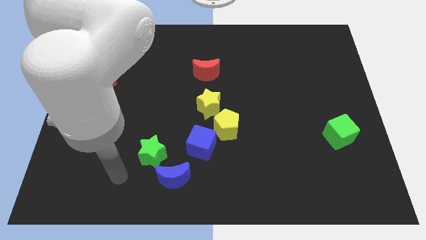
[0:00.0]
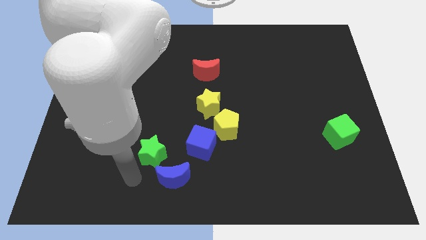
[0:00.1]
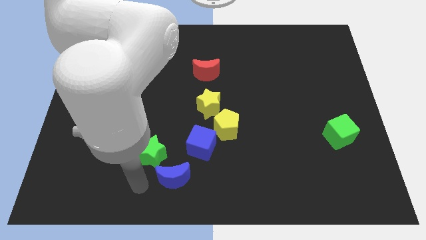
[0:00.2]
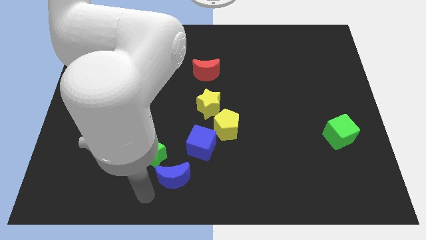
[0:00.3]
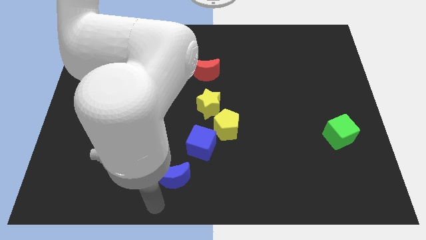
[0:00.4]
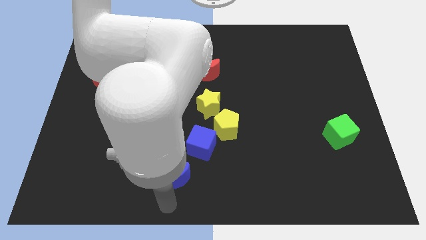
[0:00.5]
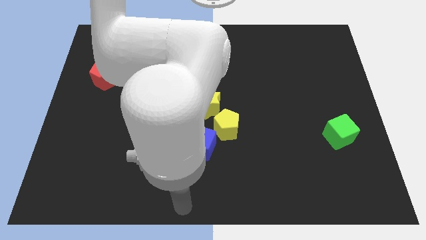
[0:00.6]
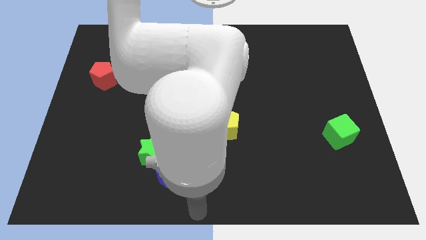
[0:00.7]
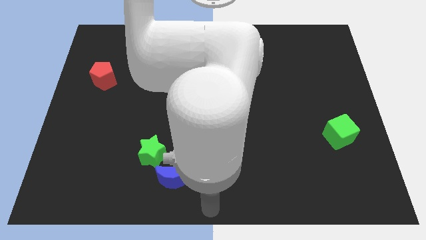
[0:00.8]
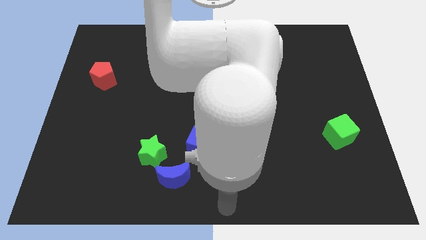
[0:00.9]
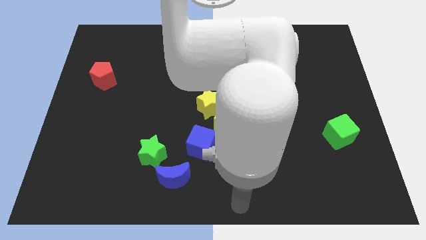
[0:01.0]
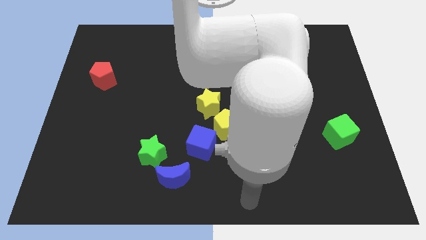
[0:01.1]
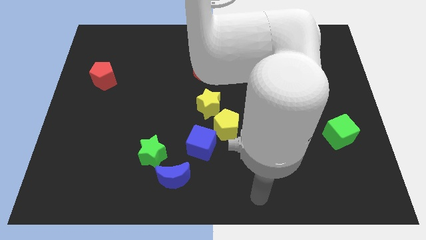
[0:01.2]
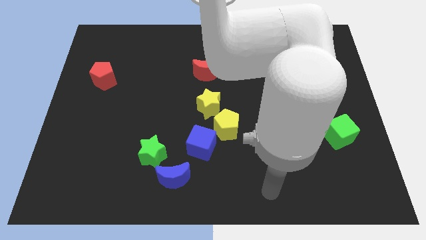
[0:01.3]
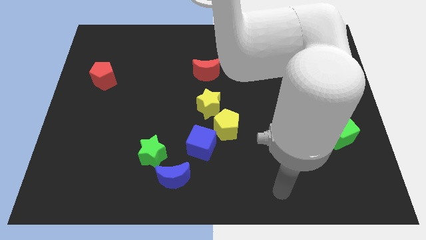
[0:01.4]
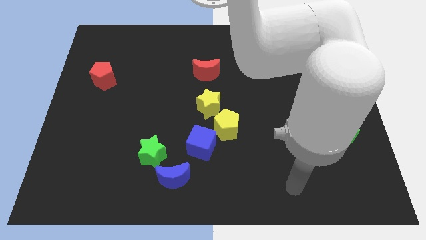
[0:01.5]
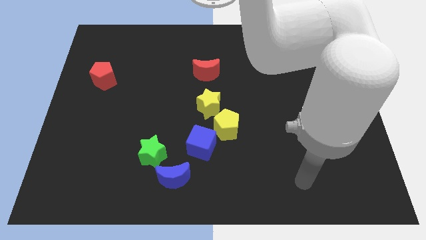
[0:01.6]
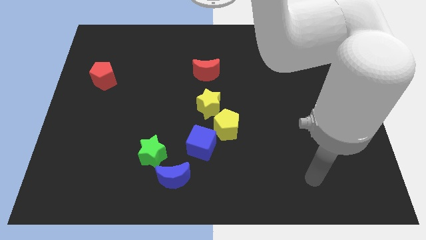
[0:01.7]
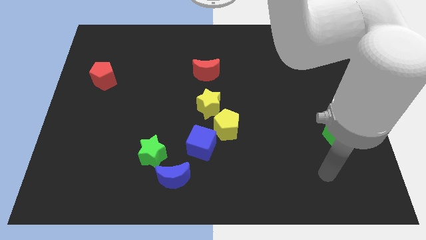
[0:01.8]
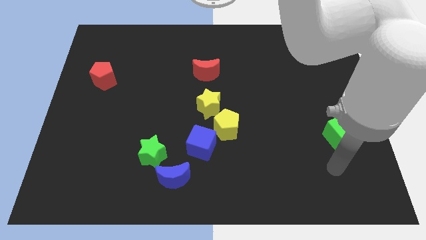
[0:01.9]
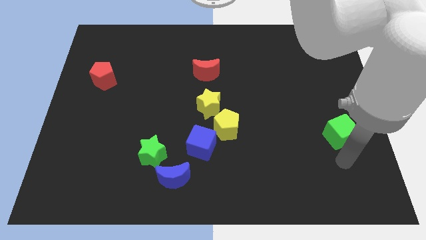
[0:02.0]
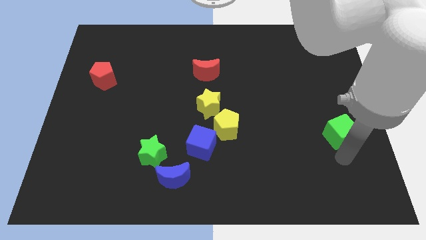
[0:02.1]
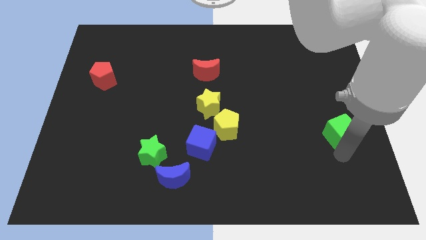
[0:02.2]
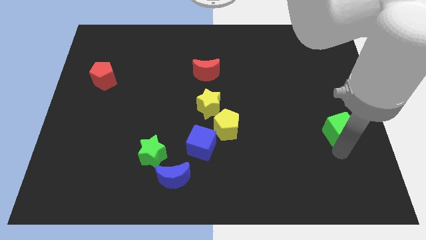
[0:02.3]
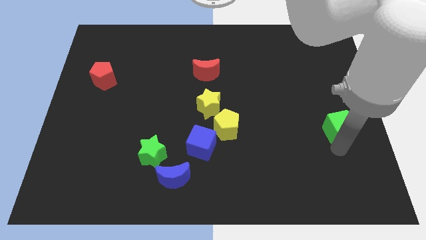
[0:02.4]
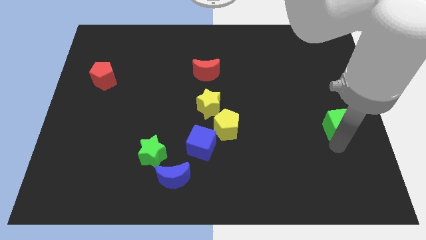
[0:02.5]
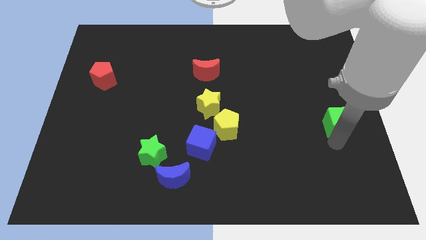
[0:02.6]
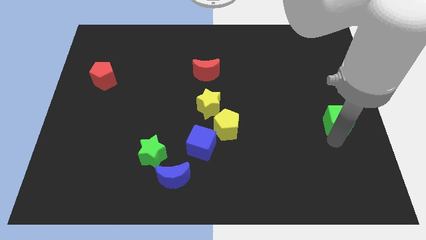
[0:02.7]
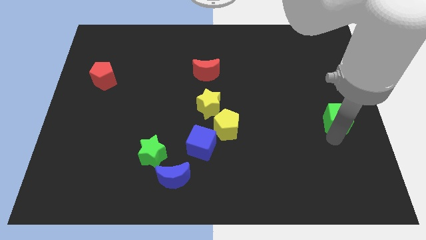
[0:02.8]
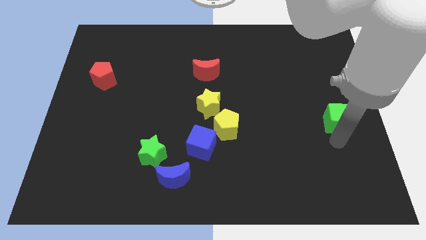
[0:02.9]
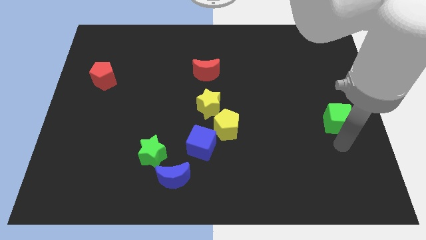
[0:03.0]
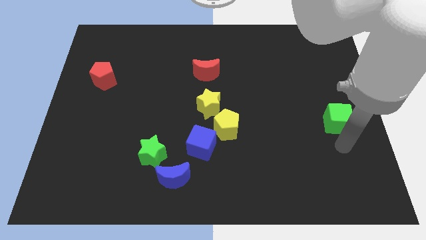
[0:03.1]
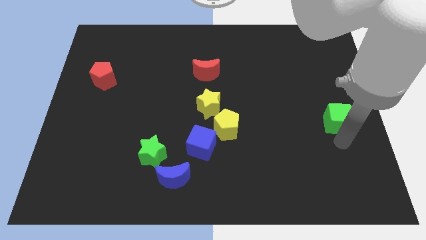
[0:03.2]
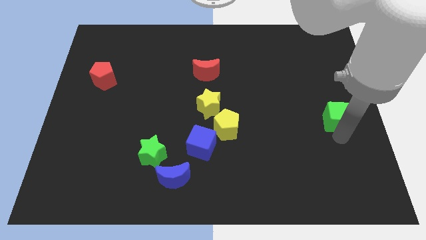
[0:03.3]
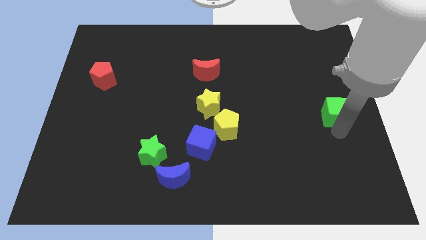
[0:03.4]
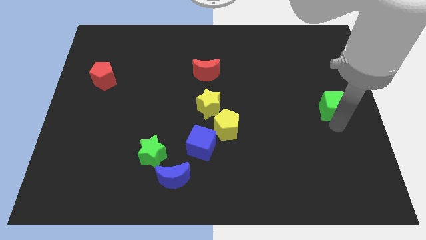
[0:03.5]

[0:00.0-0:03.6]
slightly push the green cube upwards

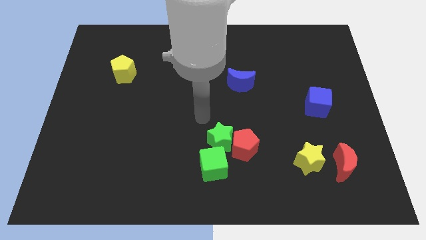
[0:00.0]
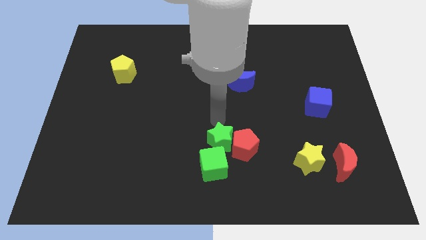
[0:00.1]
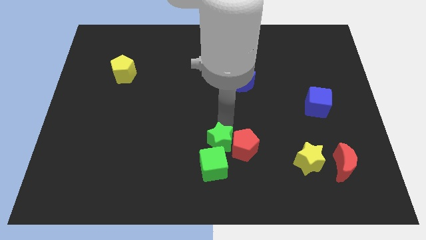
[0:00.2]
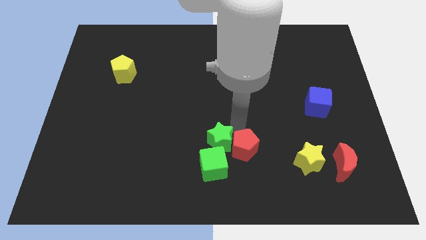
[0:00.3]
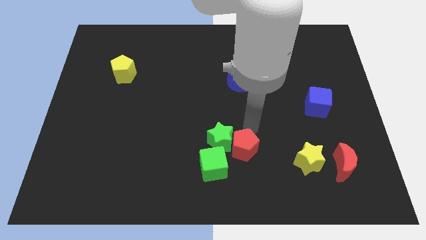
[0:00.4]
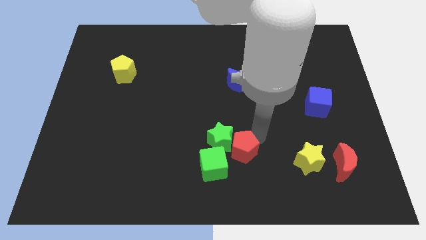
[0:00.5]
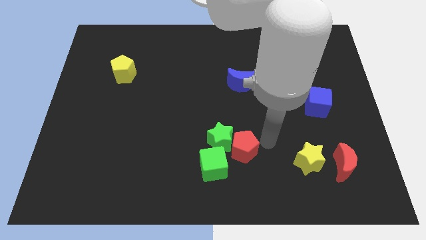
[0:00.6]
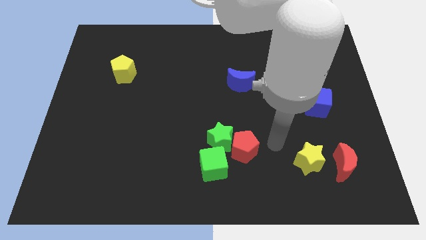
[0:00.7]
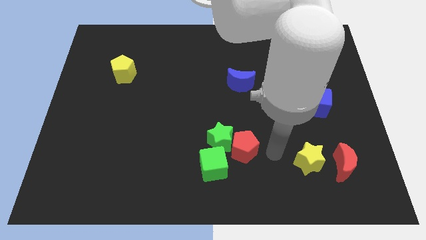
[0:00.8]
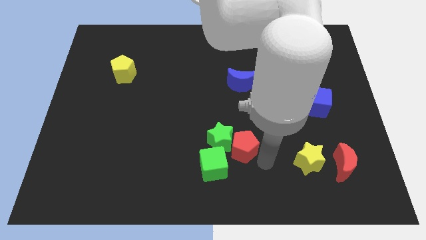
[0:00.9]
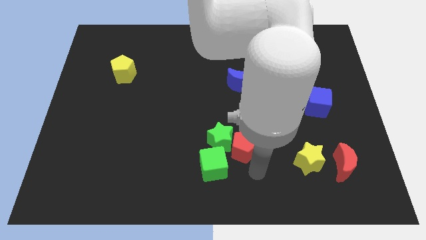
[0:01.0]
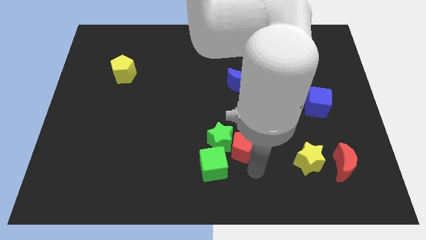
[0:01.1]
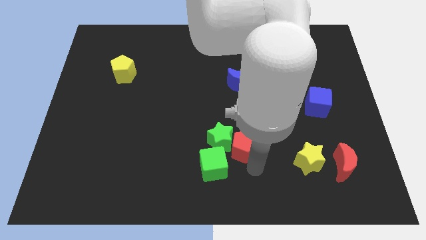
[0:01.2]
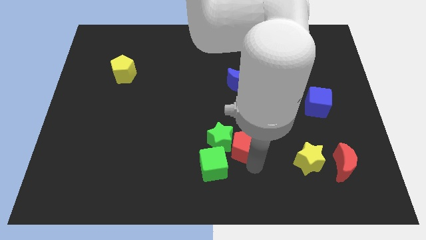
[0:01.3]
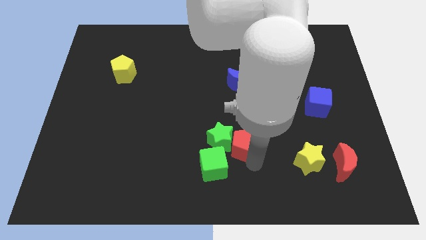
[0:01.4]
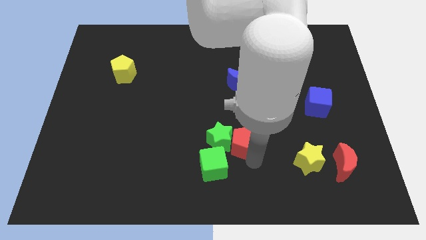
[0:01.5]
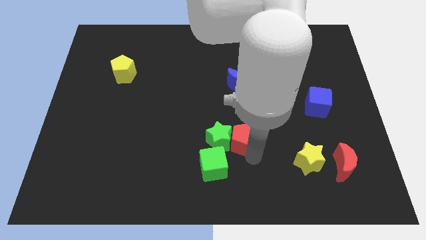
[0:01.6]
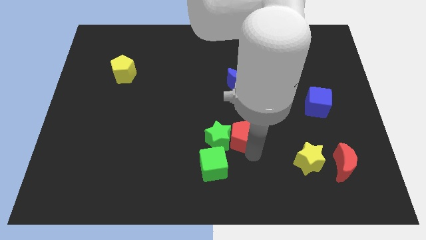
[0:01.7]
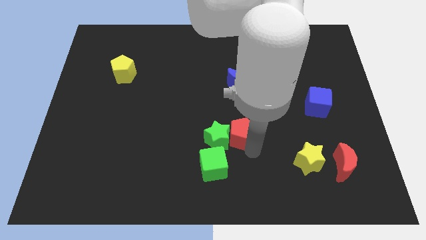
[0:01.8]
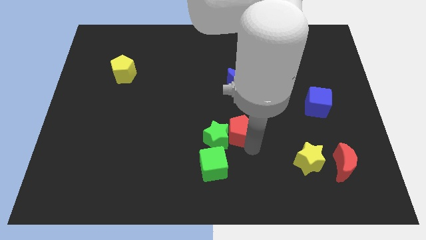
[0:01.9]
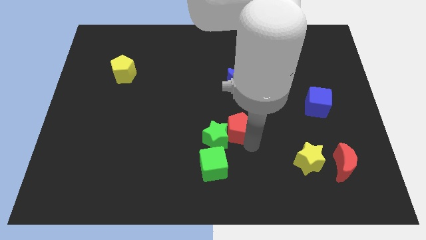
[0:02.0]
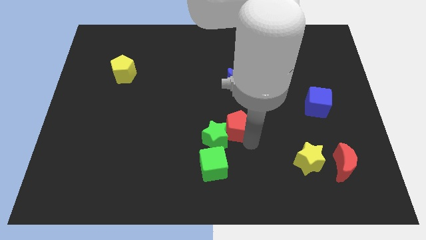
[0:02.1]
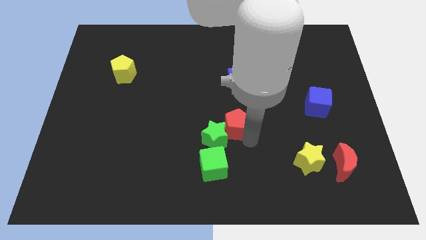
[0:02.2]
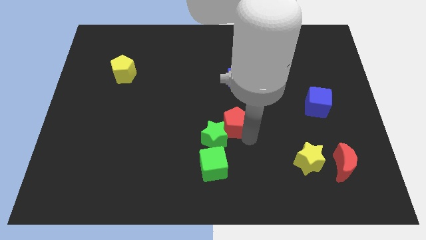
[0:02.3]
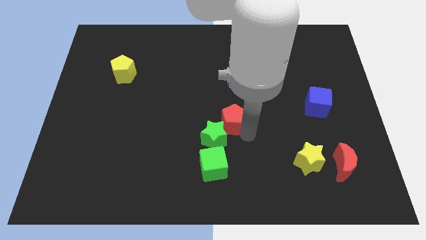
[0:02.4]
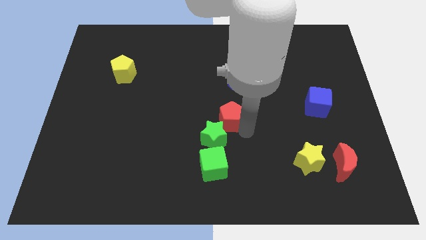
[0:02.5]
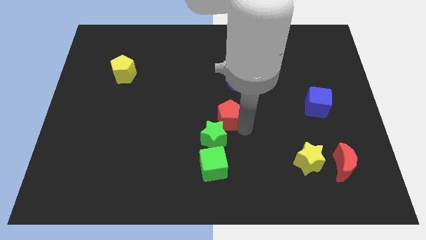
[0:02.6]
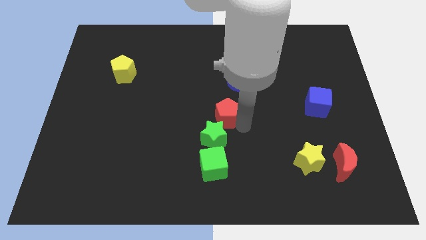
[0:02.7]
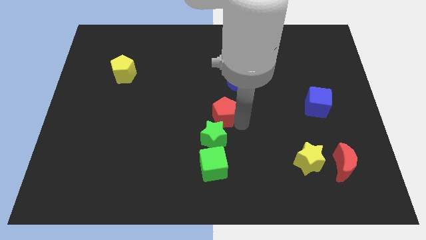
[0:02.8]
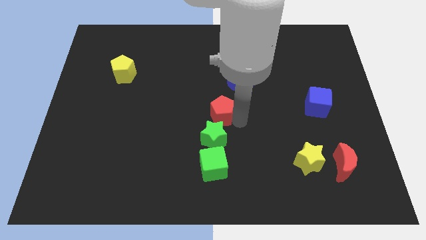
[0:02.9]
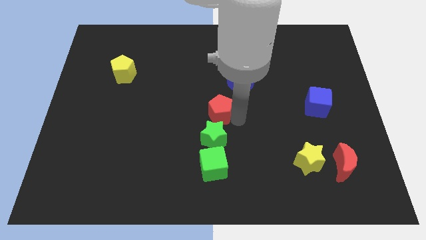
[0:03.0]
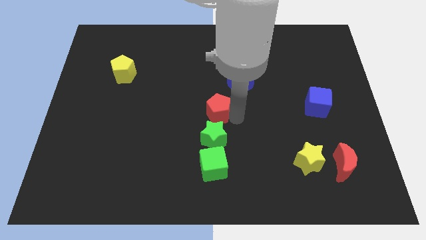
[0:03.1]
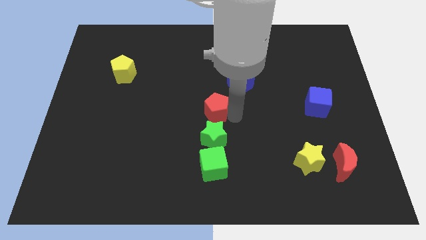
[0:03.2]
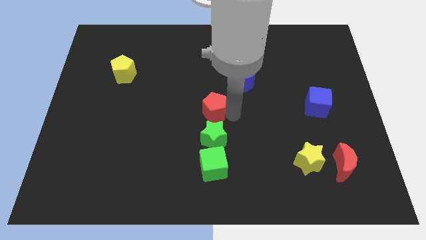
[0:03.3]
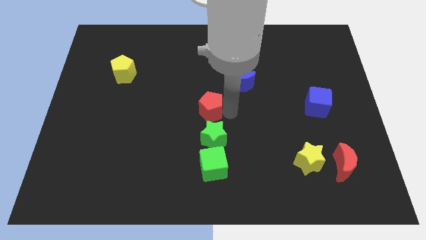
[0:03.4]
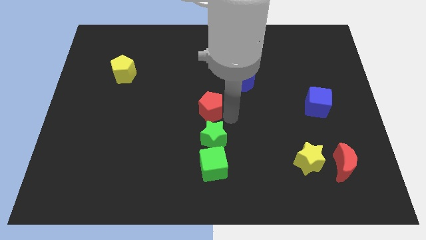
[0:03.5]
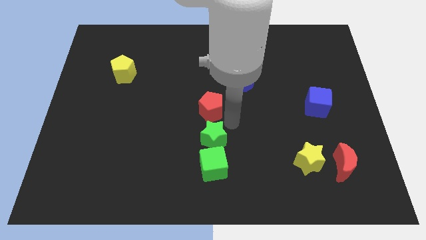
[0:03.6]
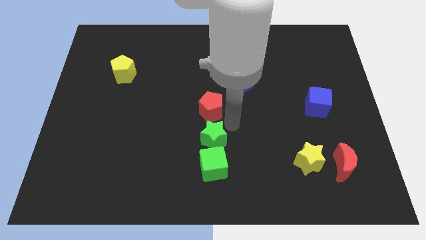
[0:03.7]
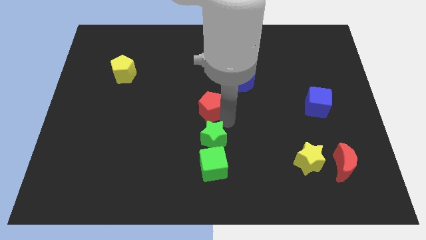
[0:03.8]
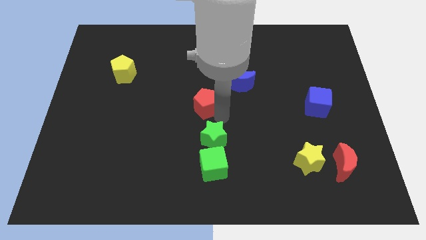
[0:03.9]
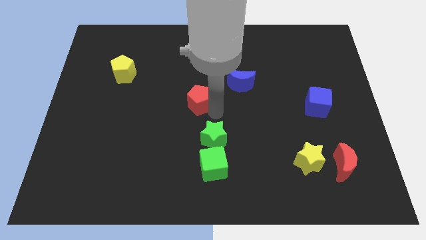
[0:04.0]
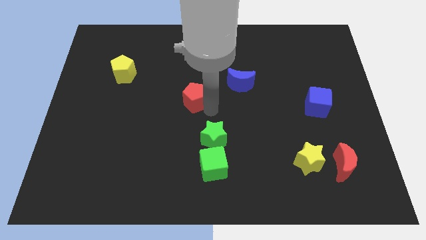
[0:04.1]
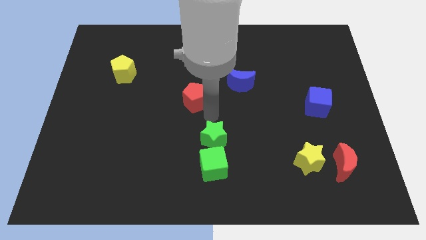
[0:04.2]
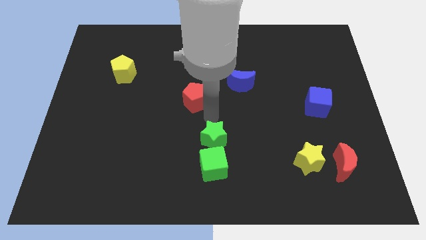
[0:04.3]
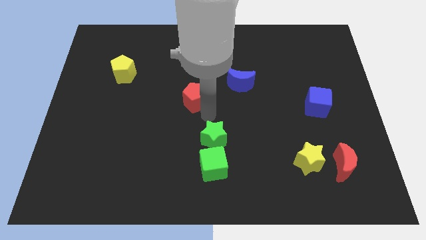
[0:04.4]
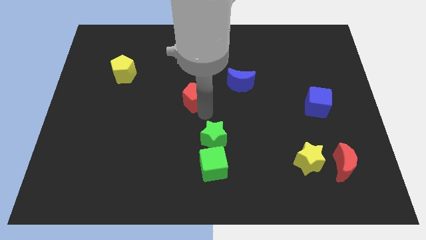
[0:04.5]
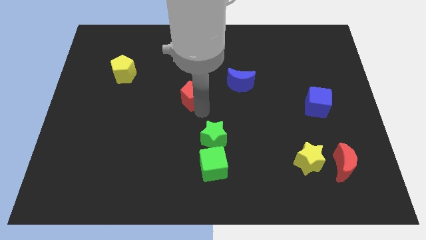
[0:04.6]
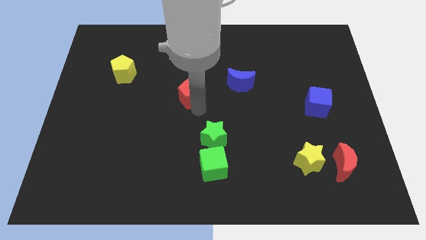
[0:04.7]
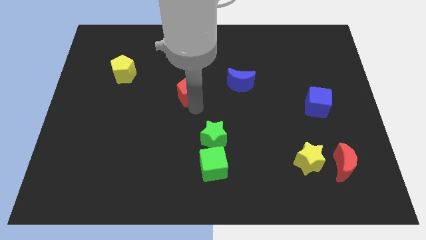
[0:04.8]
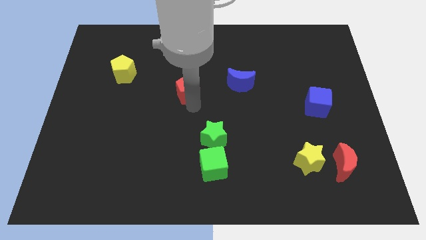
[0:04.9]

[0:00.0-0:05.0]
slide the red pentagon upwards and then to the left

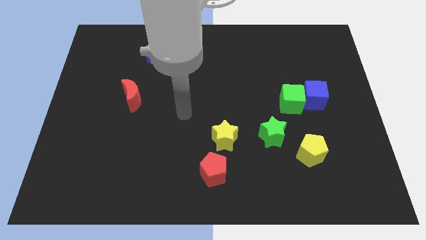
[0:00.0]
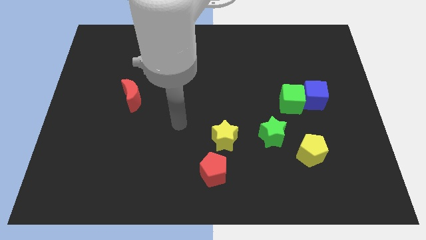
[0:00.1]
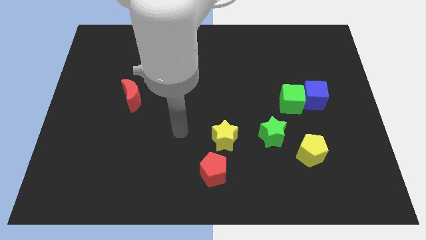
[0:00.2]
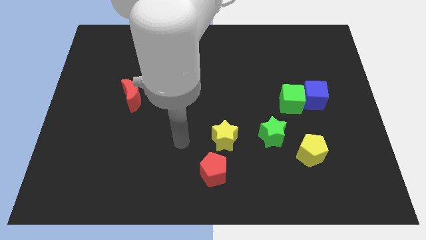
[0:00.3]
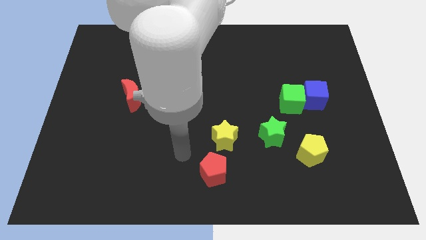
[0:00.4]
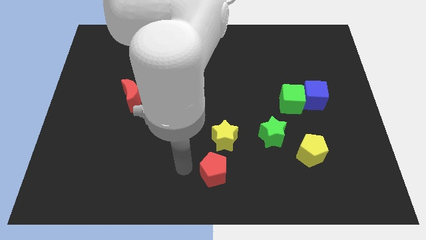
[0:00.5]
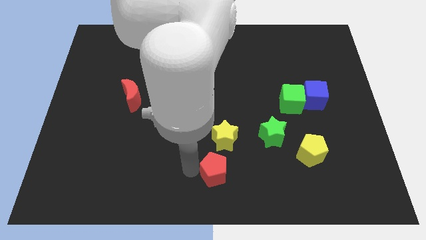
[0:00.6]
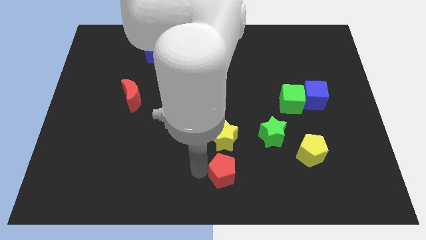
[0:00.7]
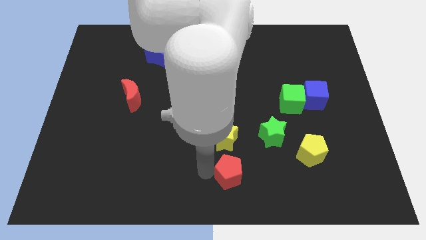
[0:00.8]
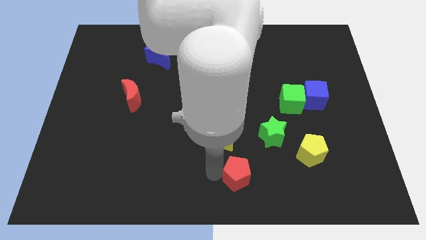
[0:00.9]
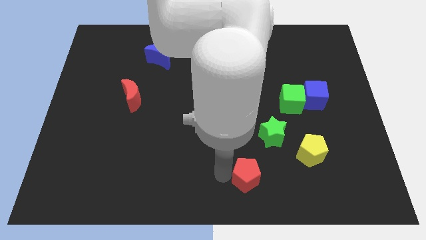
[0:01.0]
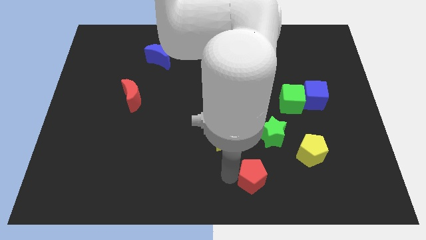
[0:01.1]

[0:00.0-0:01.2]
slide the red pentagon a little bit to the right
